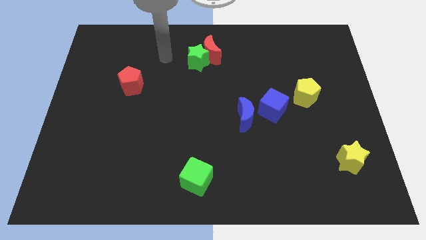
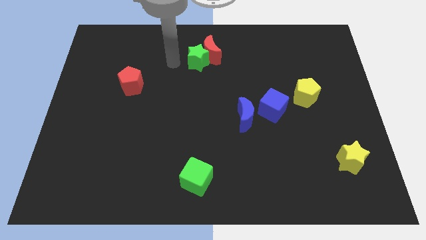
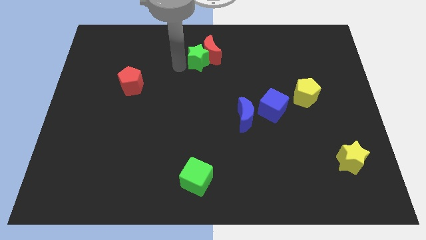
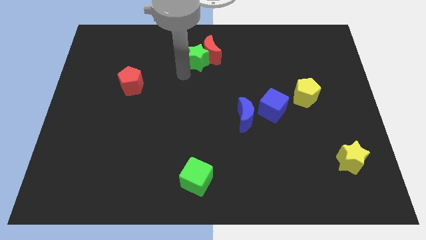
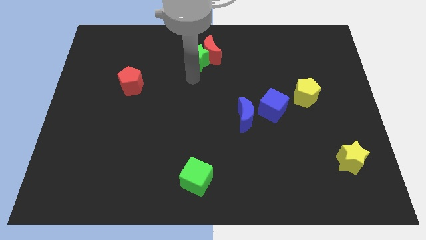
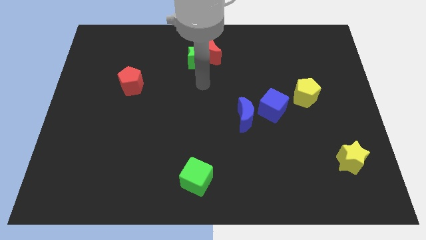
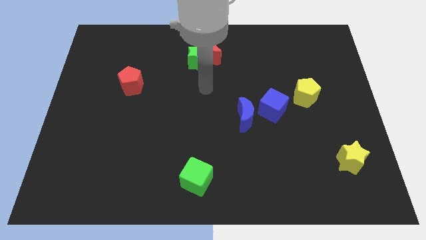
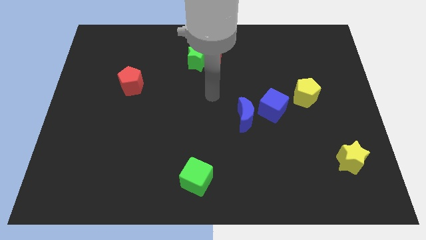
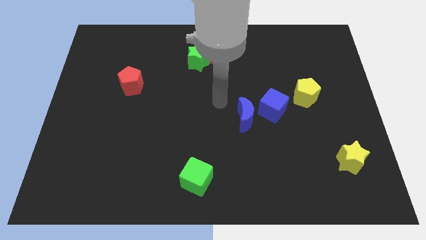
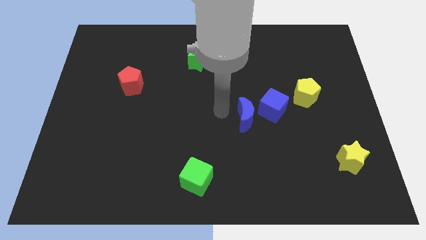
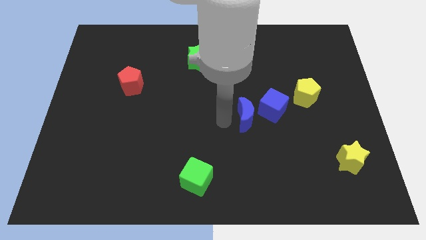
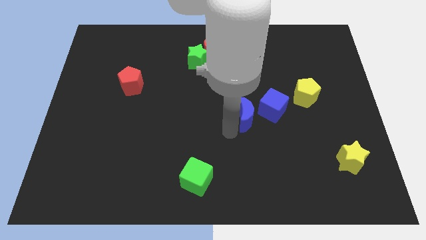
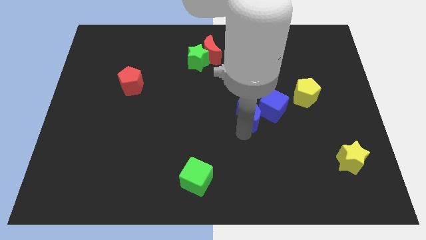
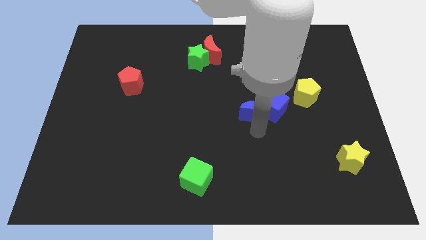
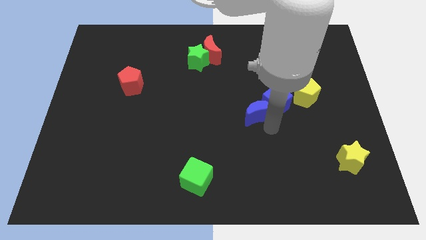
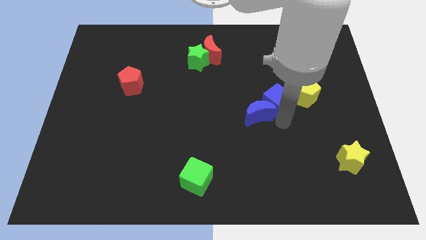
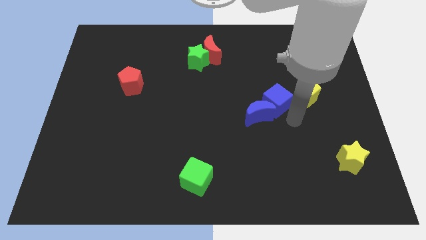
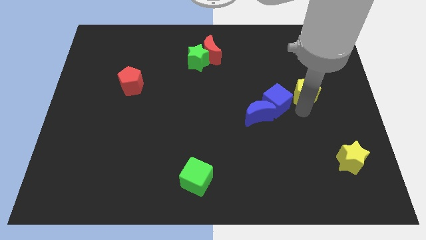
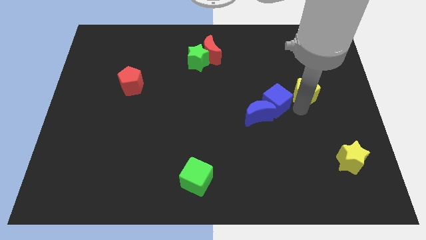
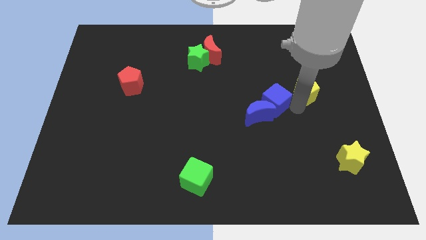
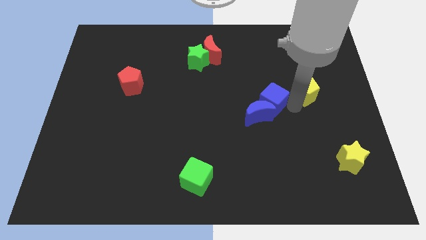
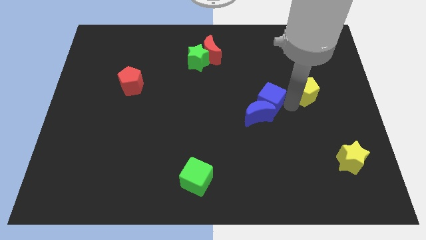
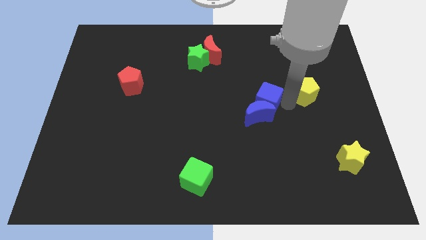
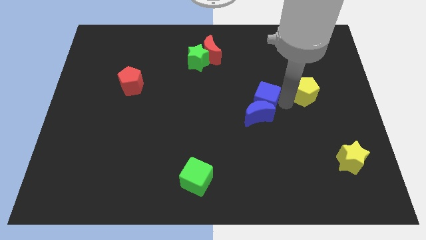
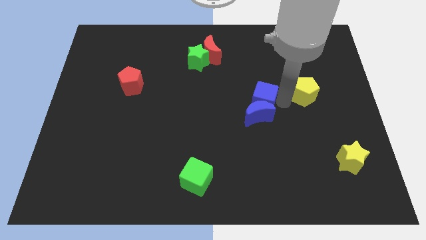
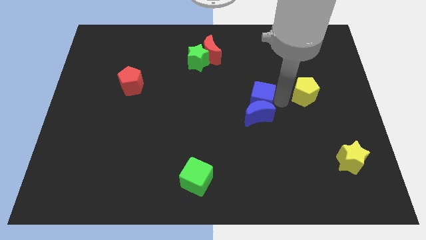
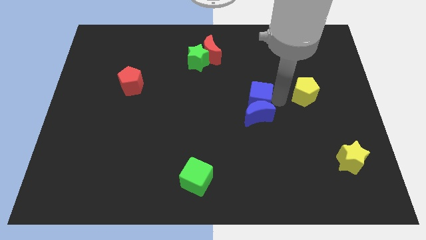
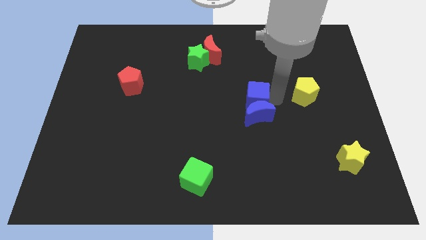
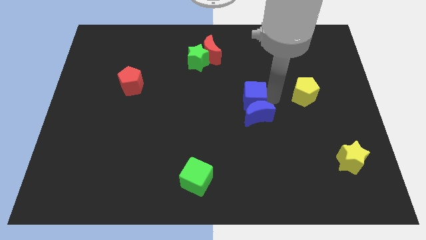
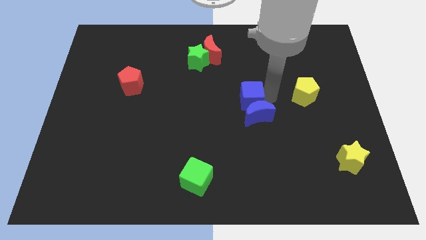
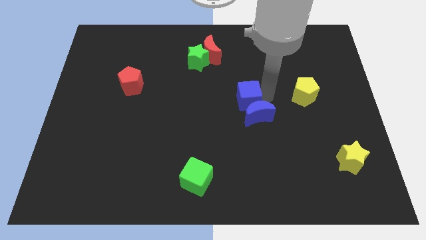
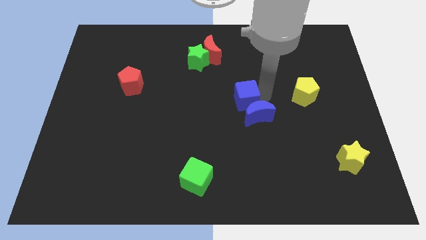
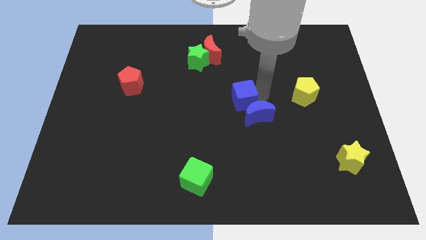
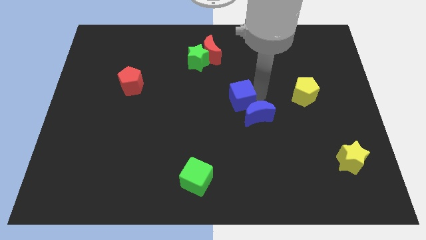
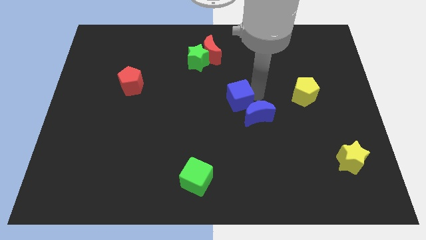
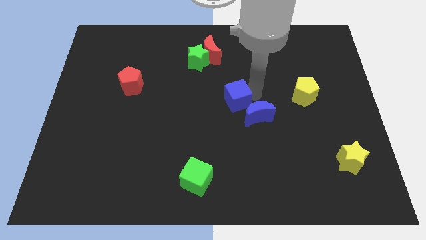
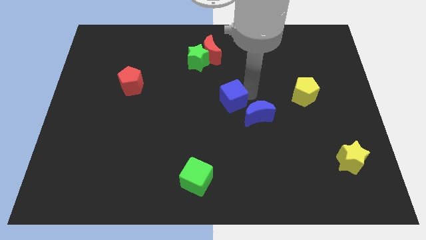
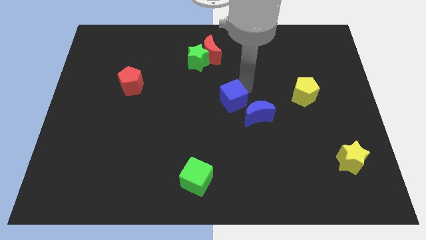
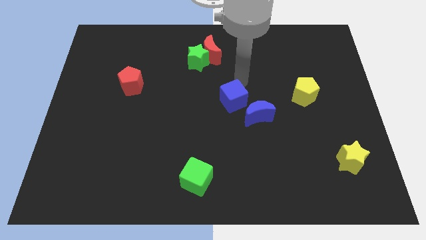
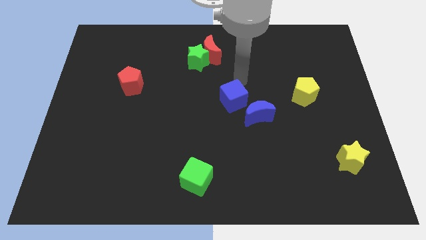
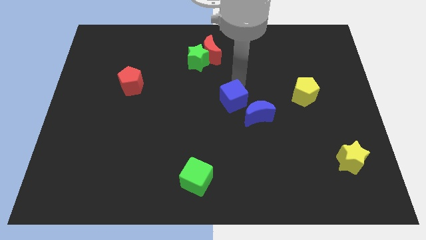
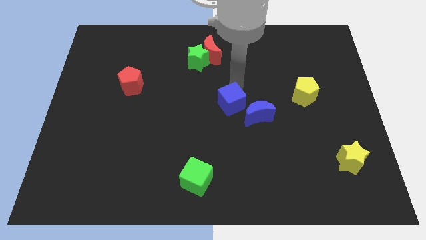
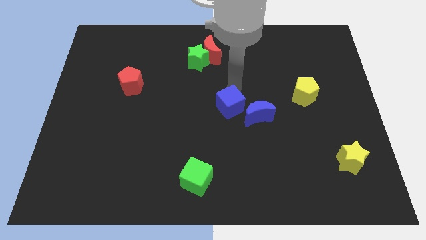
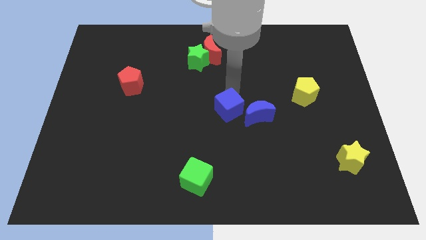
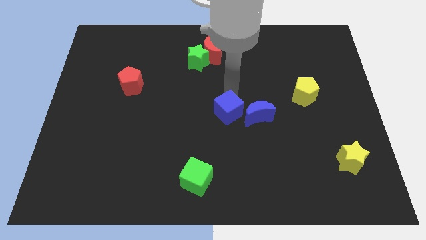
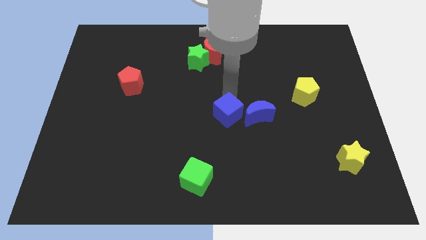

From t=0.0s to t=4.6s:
slightly move the blue cube diagonally downwards and to the left

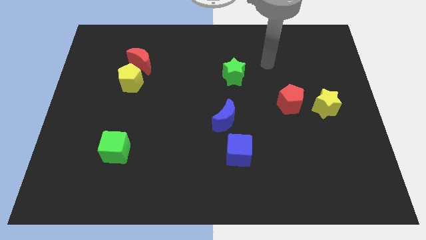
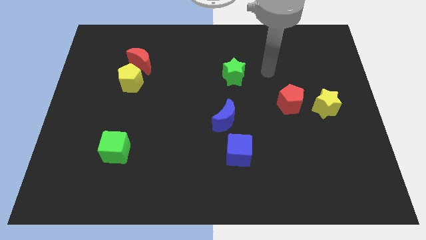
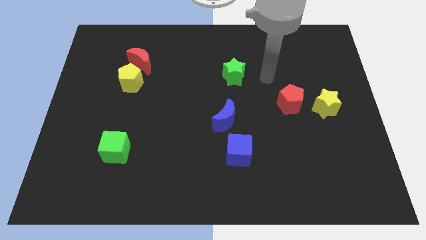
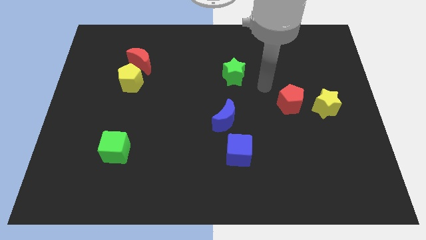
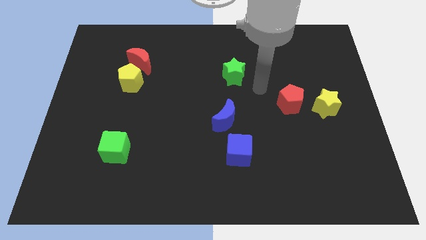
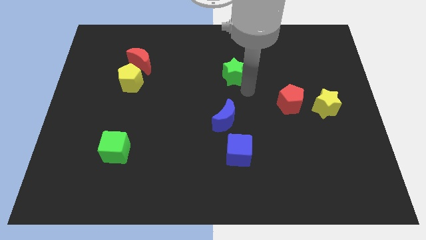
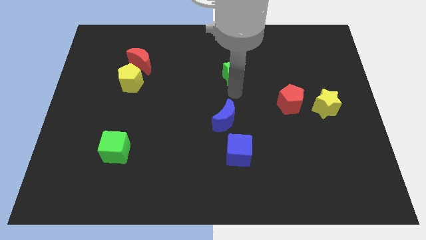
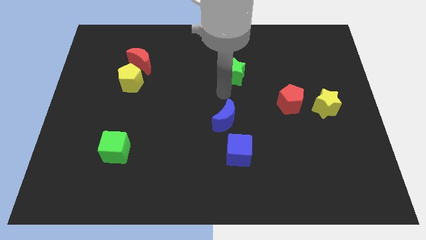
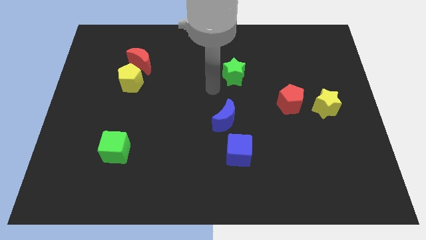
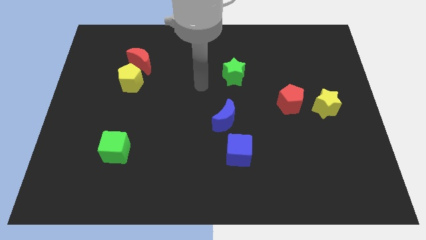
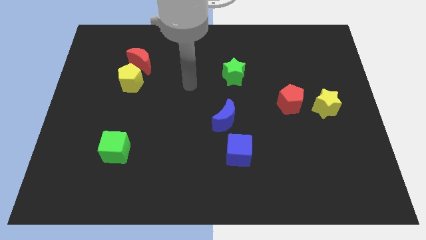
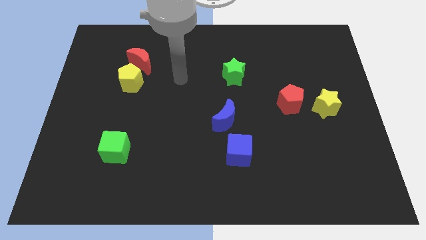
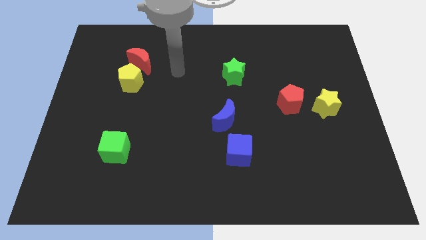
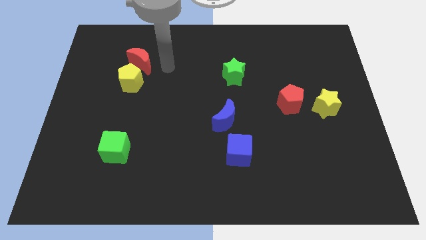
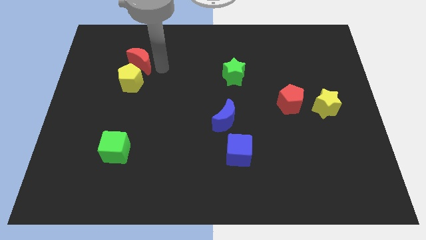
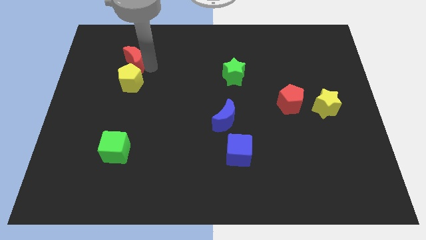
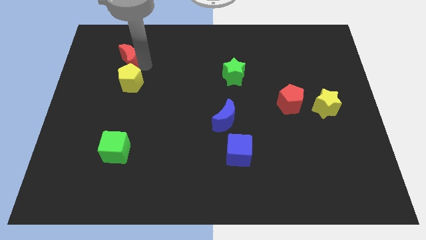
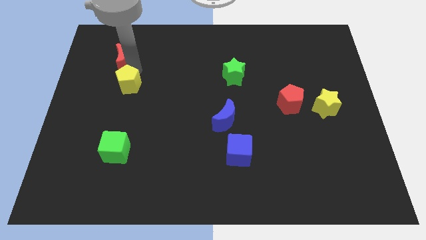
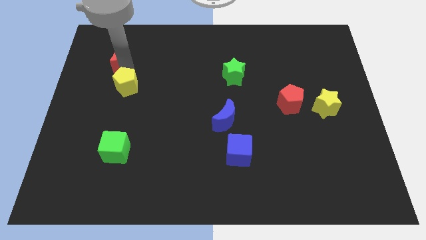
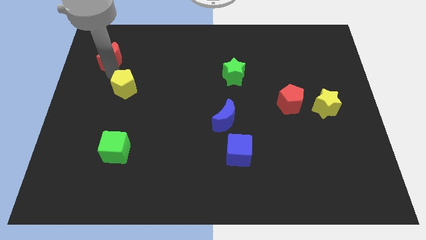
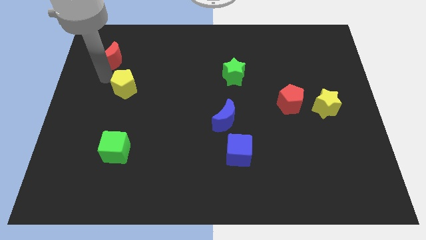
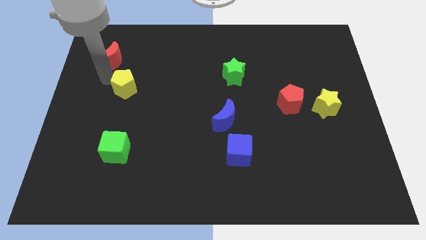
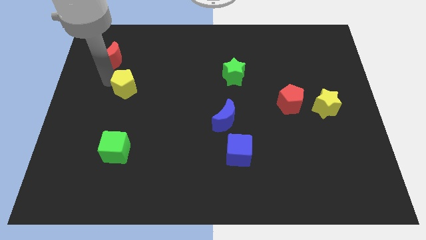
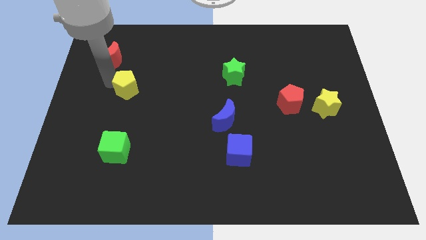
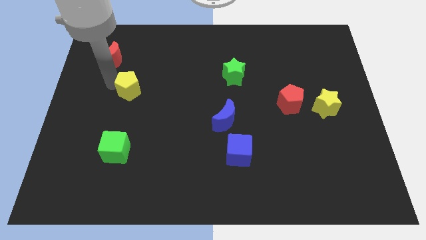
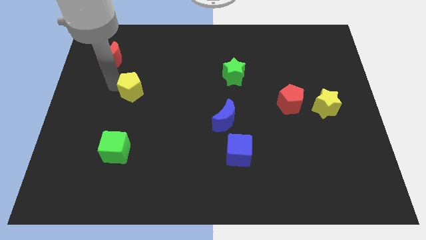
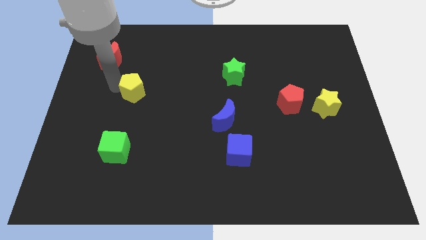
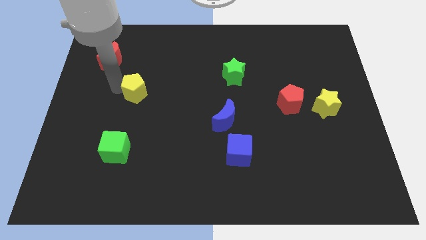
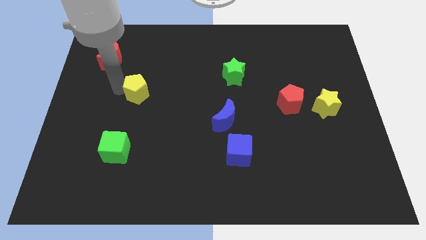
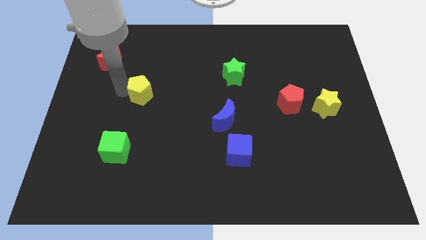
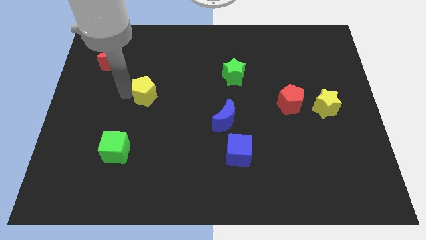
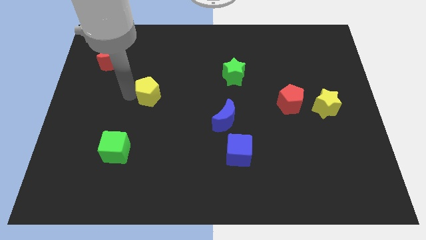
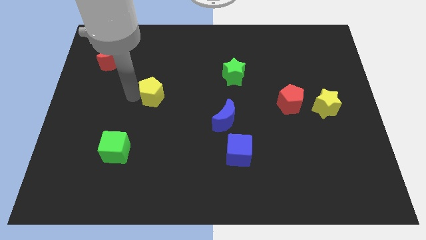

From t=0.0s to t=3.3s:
slide the yellow pentagon diagonally down and right a bit

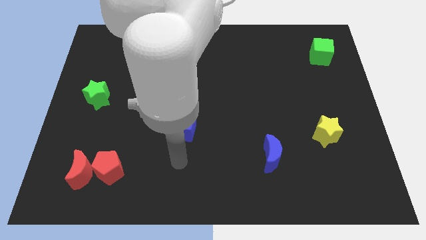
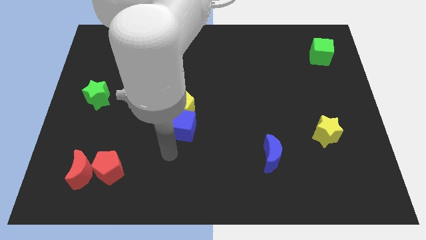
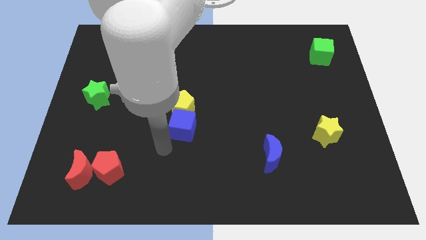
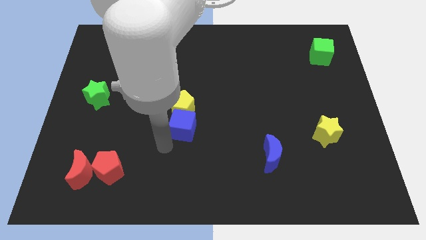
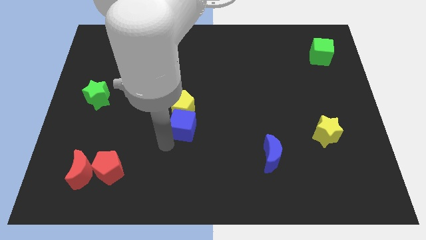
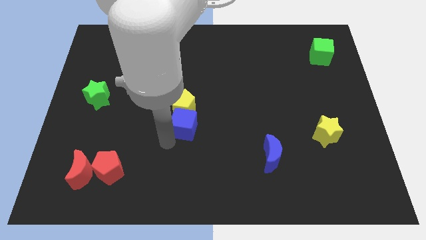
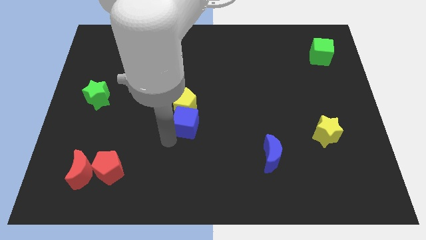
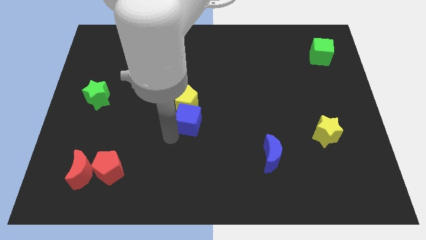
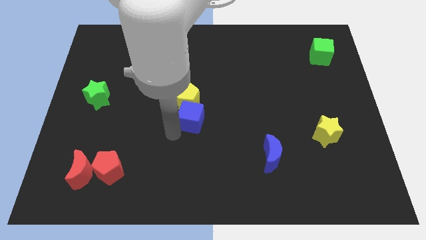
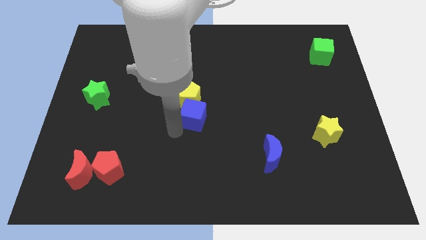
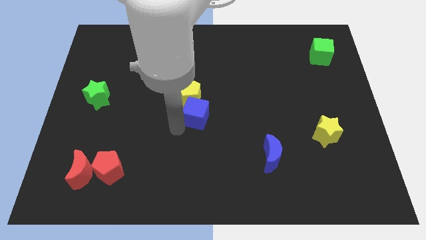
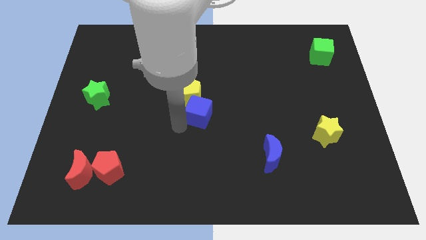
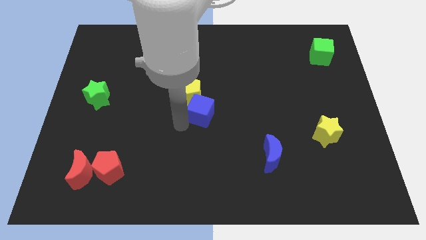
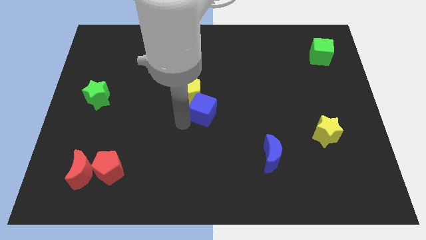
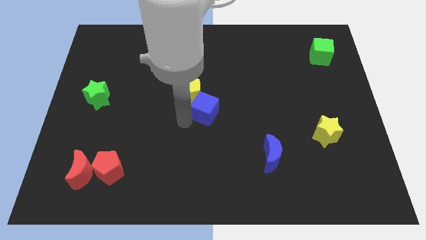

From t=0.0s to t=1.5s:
slightly move the blue cube diagonally up and right
